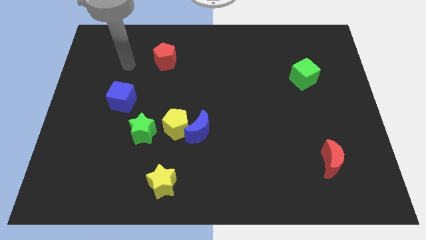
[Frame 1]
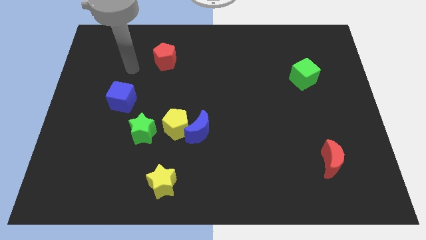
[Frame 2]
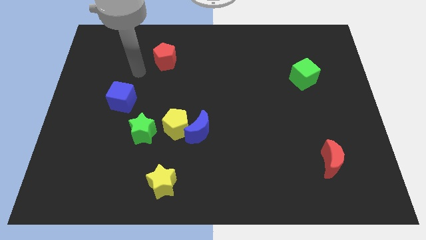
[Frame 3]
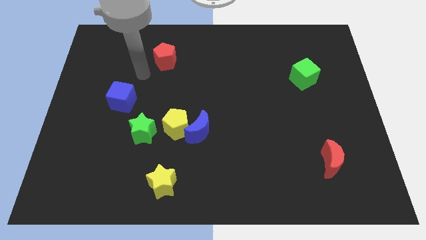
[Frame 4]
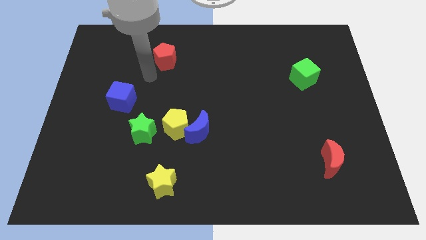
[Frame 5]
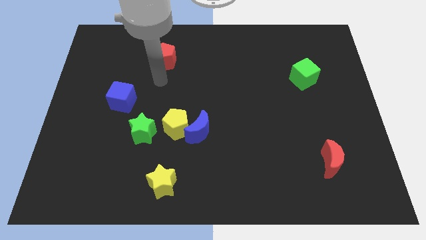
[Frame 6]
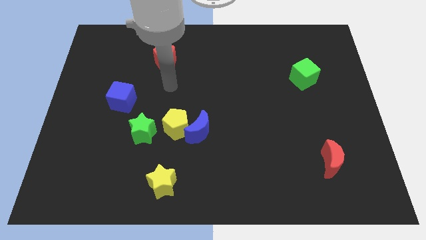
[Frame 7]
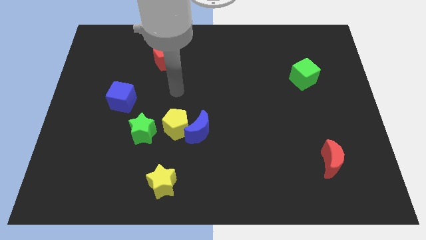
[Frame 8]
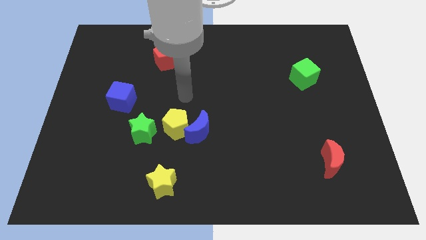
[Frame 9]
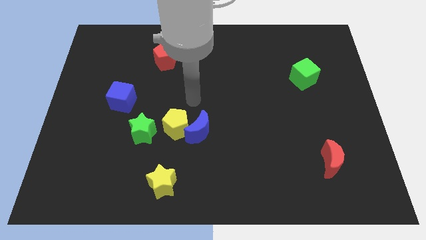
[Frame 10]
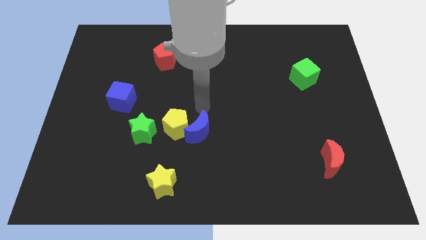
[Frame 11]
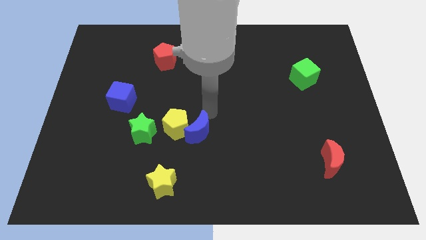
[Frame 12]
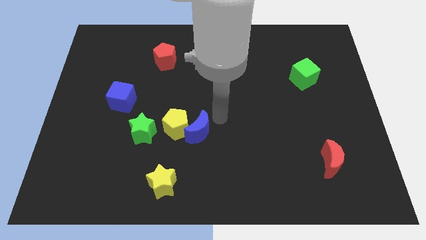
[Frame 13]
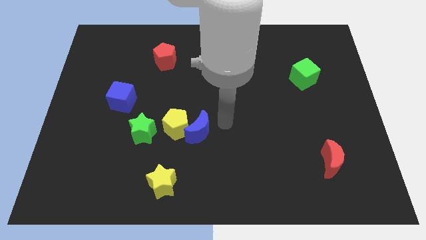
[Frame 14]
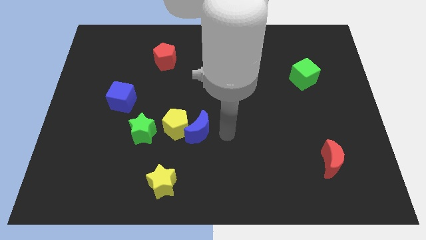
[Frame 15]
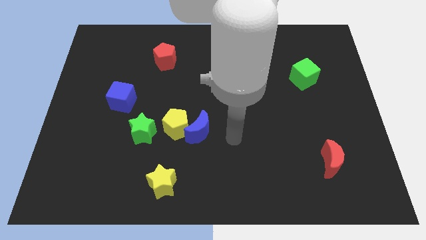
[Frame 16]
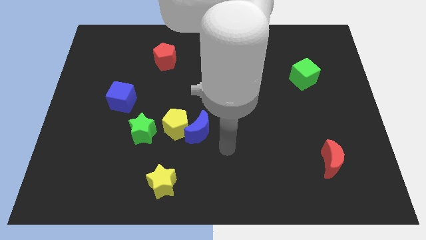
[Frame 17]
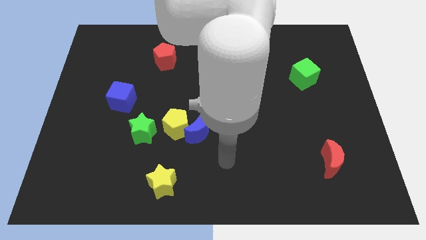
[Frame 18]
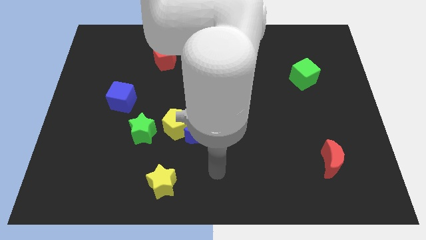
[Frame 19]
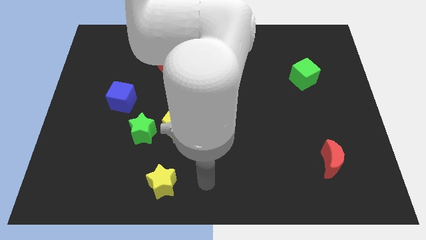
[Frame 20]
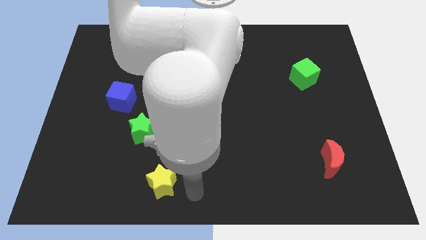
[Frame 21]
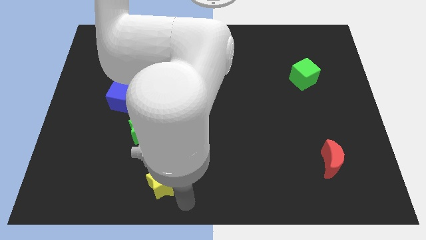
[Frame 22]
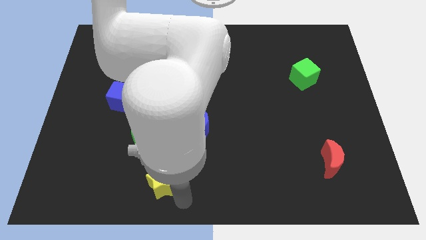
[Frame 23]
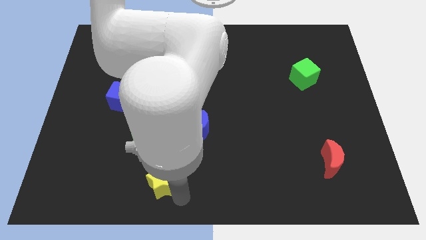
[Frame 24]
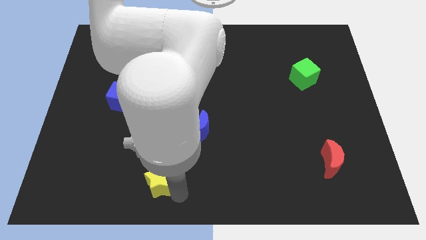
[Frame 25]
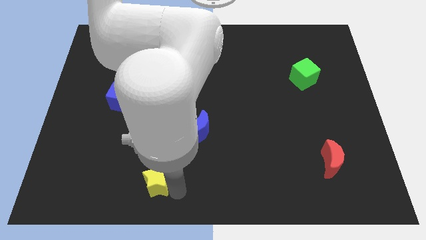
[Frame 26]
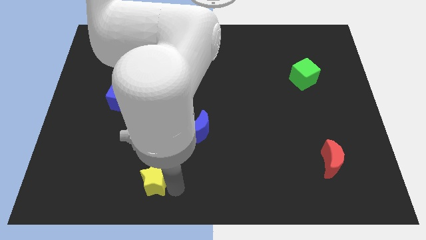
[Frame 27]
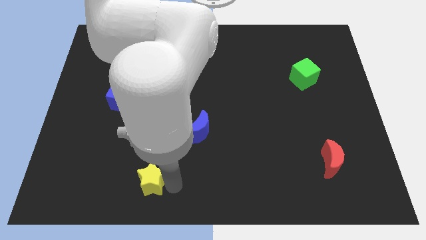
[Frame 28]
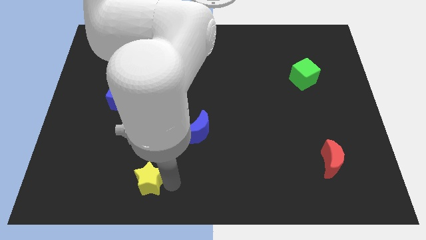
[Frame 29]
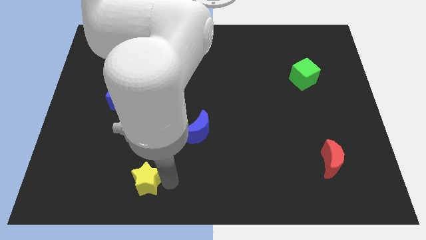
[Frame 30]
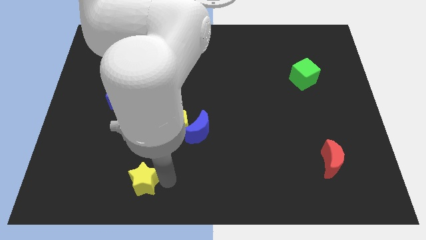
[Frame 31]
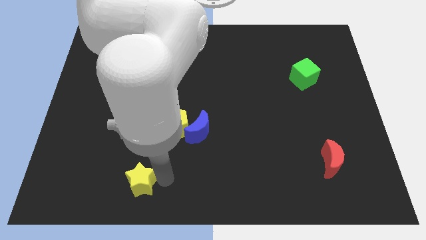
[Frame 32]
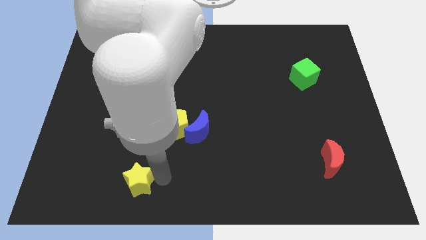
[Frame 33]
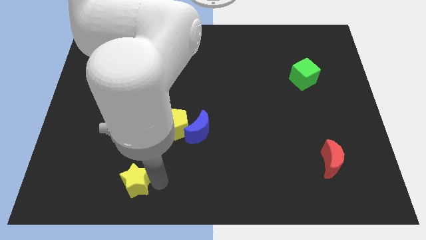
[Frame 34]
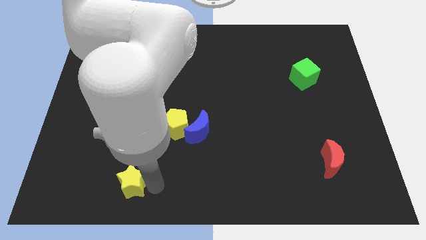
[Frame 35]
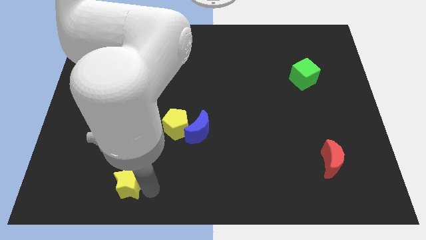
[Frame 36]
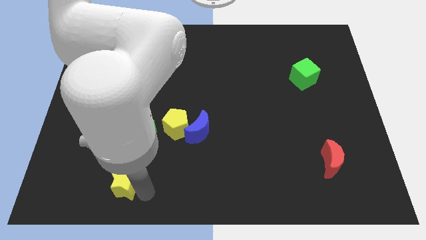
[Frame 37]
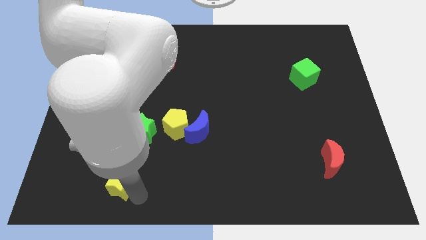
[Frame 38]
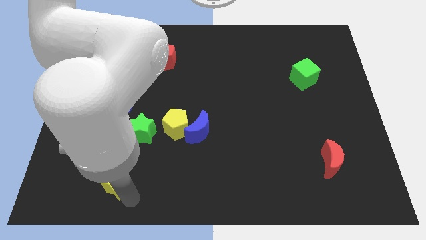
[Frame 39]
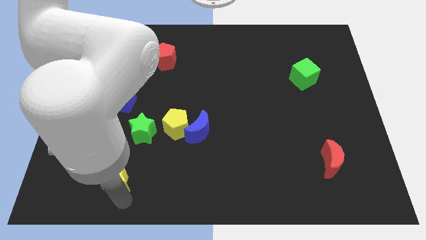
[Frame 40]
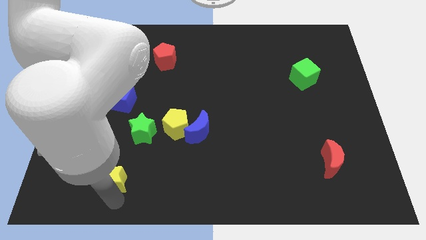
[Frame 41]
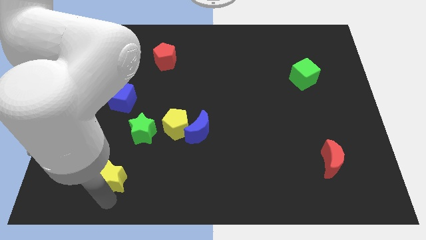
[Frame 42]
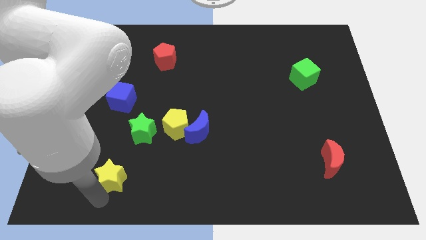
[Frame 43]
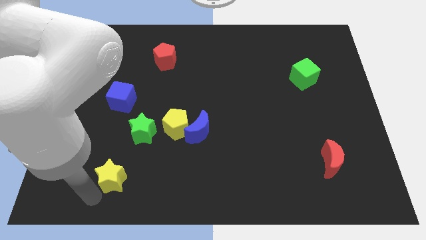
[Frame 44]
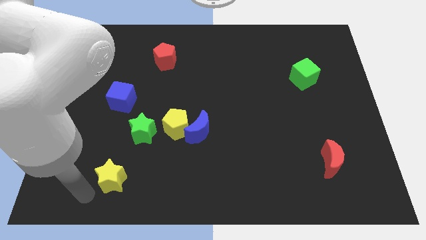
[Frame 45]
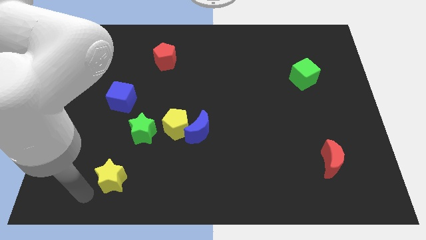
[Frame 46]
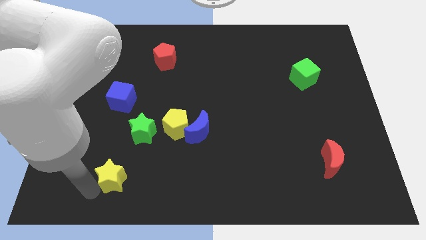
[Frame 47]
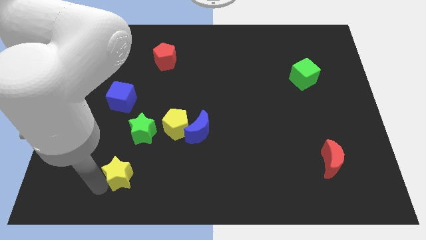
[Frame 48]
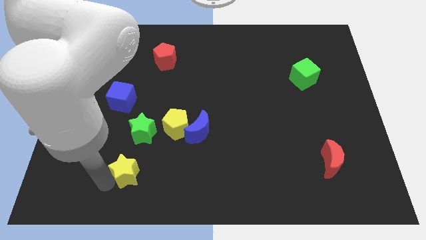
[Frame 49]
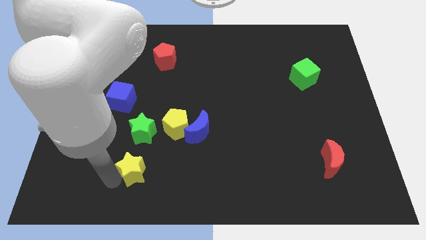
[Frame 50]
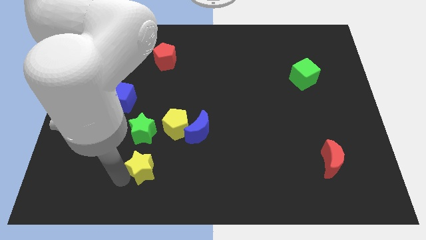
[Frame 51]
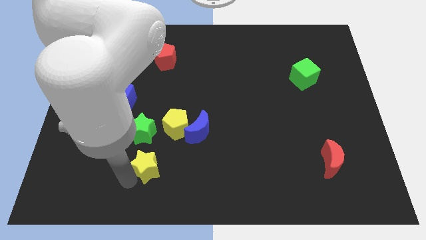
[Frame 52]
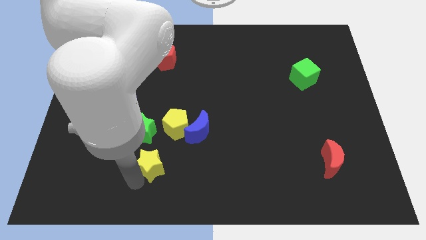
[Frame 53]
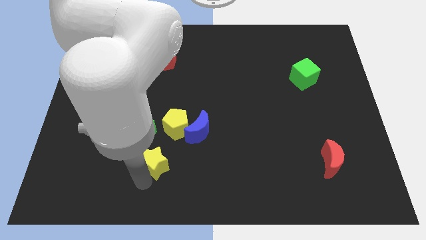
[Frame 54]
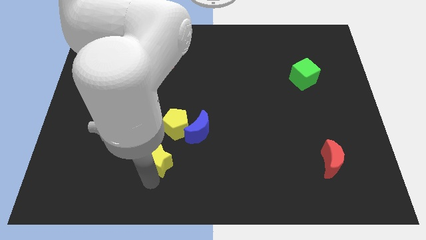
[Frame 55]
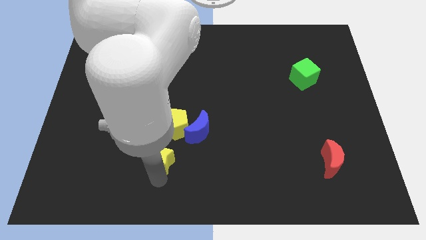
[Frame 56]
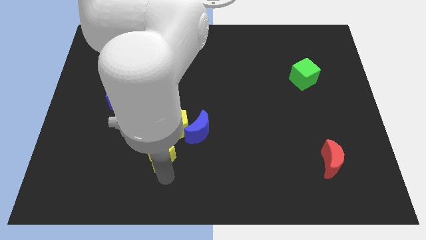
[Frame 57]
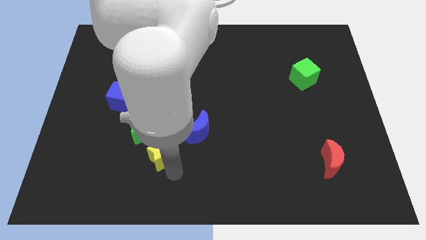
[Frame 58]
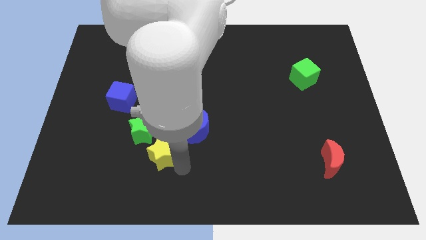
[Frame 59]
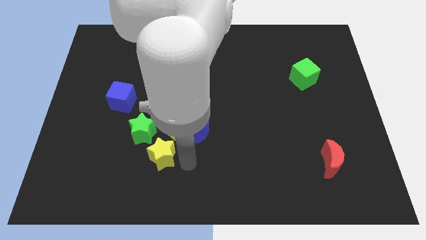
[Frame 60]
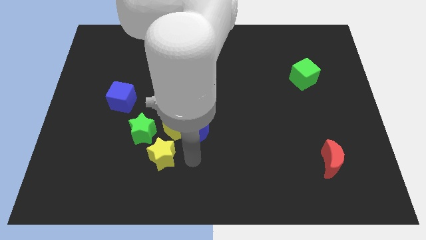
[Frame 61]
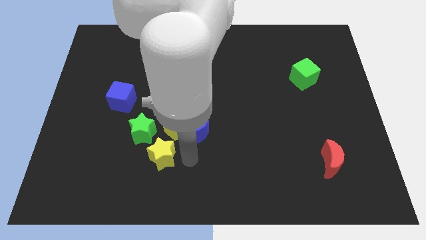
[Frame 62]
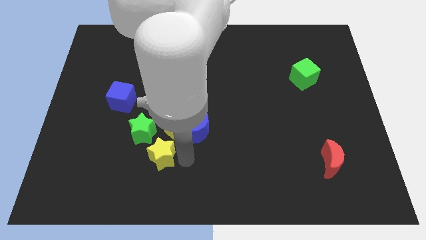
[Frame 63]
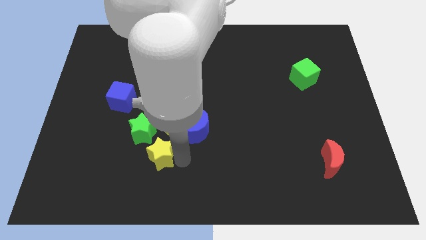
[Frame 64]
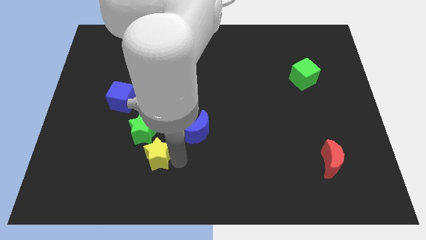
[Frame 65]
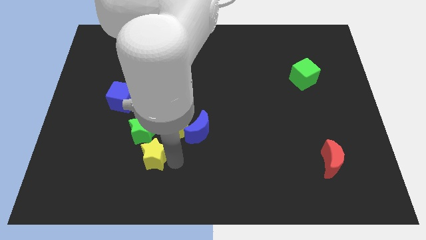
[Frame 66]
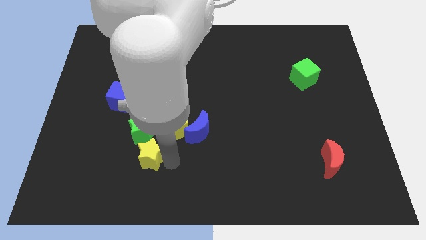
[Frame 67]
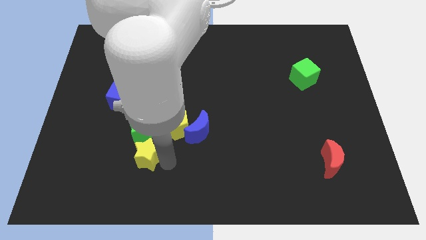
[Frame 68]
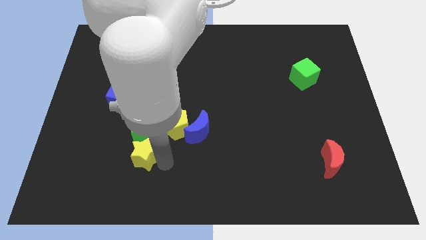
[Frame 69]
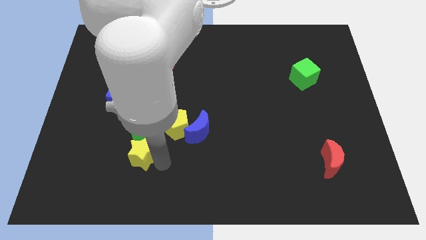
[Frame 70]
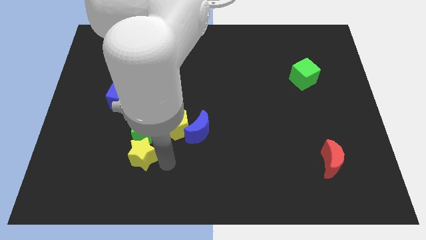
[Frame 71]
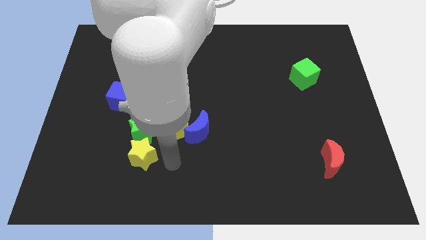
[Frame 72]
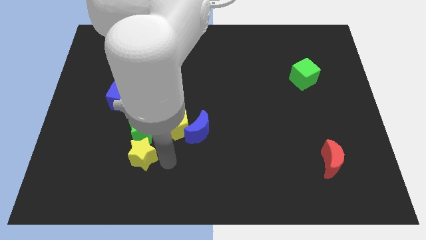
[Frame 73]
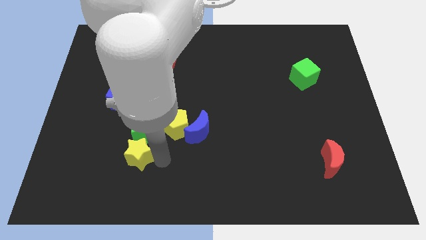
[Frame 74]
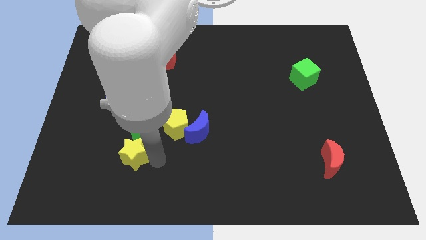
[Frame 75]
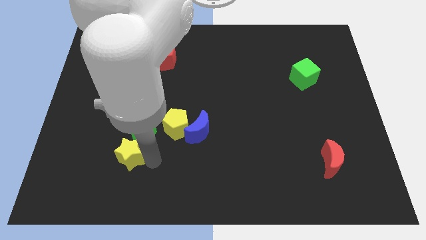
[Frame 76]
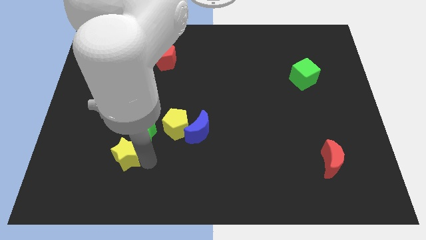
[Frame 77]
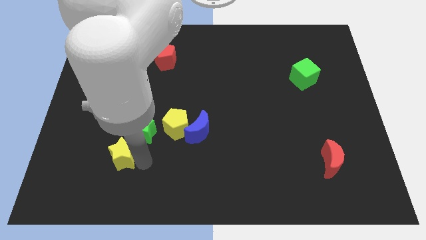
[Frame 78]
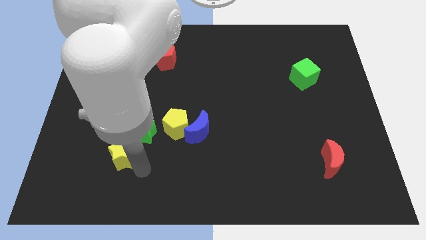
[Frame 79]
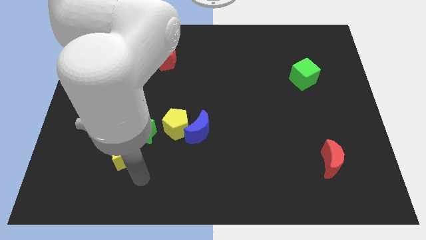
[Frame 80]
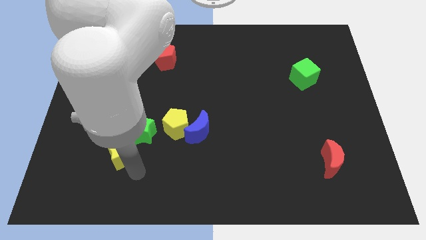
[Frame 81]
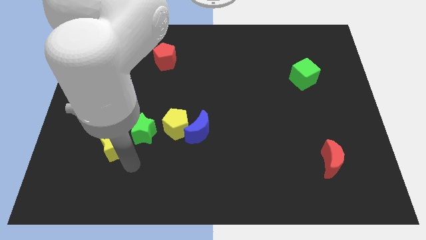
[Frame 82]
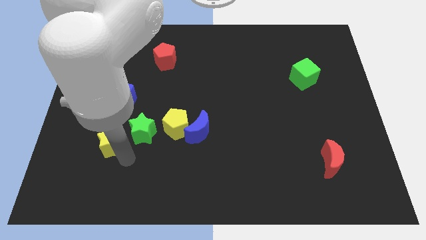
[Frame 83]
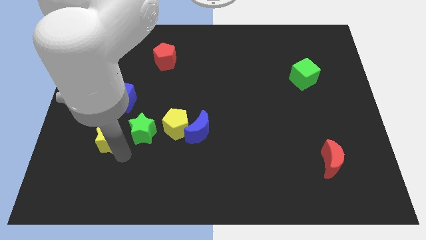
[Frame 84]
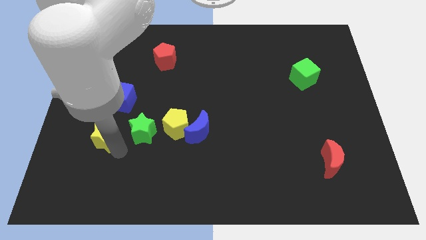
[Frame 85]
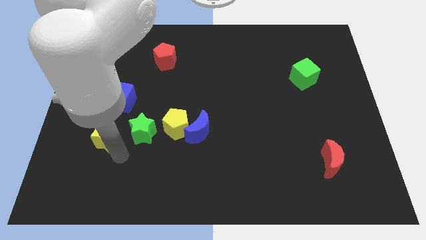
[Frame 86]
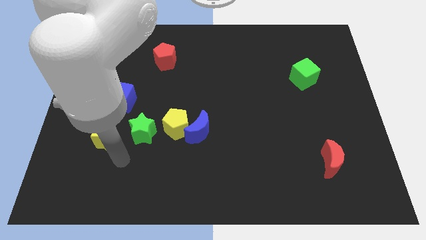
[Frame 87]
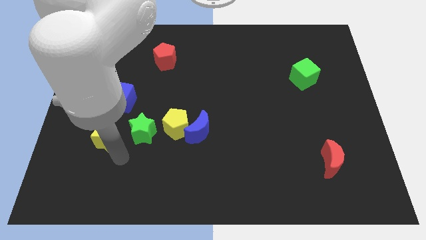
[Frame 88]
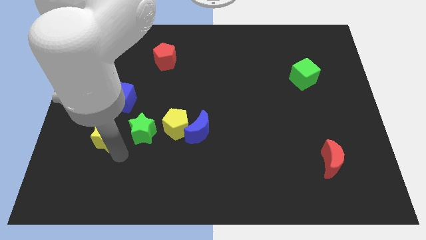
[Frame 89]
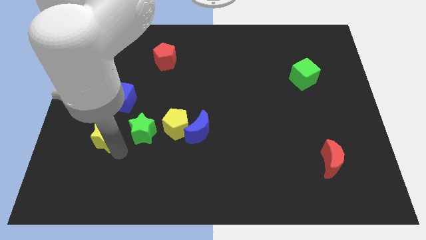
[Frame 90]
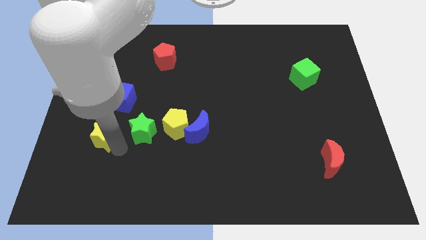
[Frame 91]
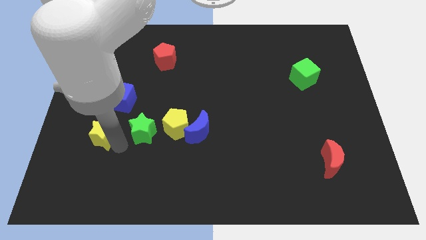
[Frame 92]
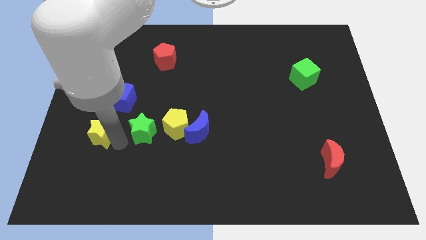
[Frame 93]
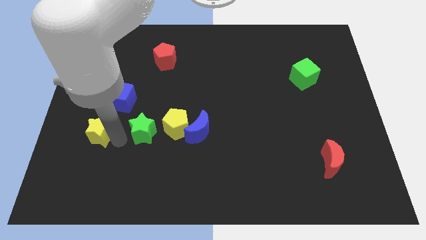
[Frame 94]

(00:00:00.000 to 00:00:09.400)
slide the yellow star to the bottom left side of the blue cube
